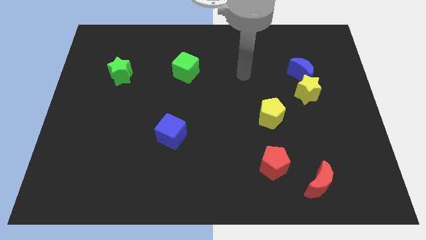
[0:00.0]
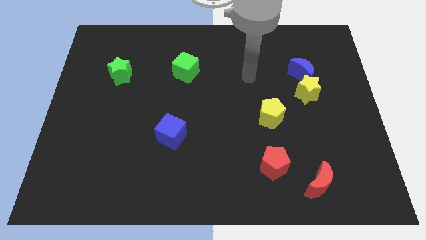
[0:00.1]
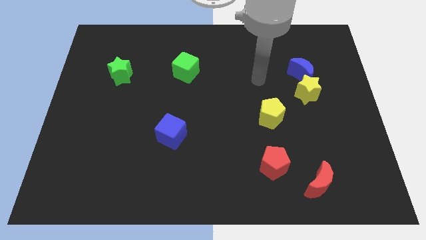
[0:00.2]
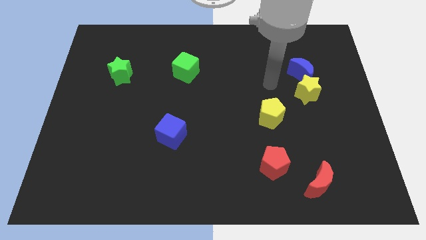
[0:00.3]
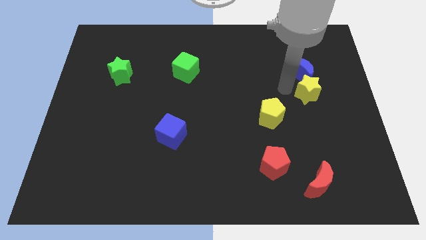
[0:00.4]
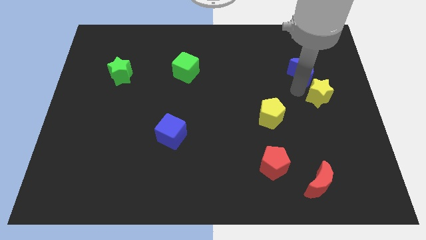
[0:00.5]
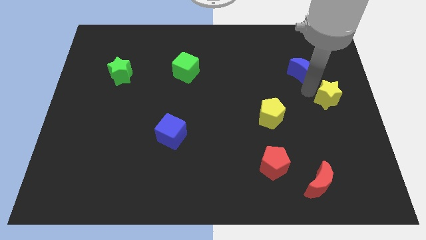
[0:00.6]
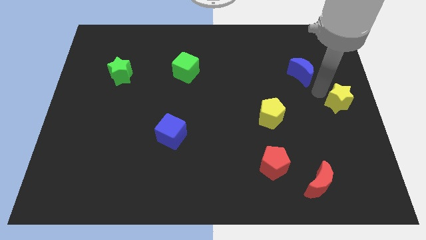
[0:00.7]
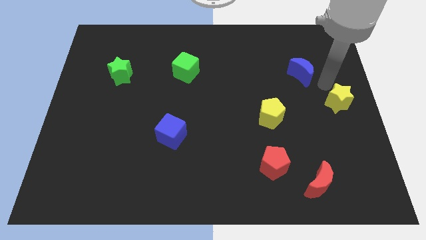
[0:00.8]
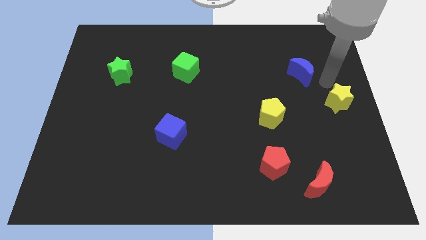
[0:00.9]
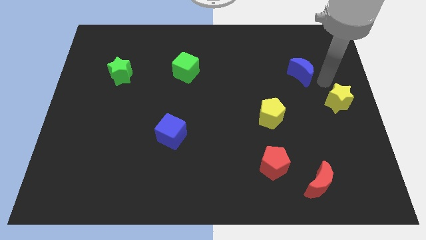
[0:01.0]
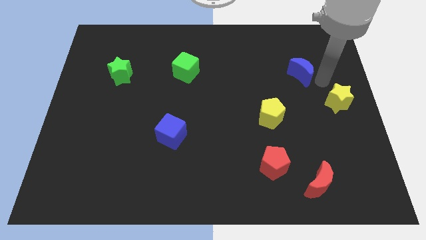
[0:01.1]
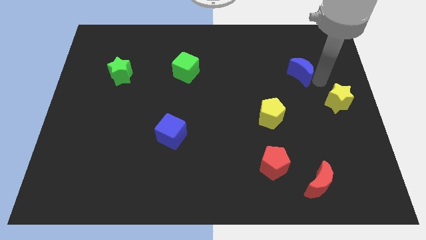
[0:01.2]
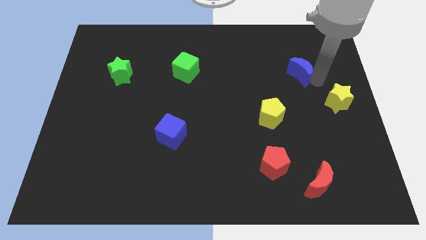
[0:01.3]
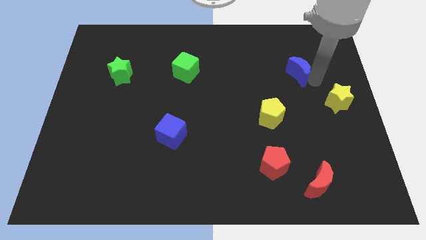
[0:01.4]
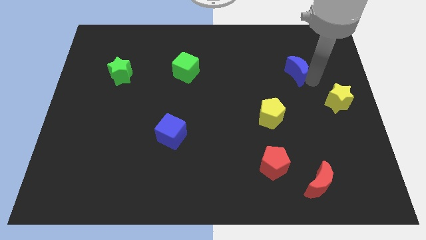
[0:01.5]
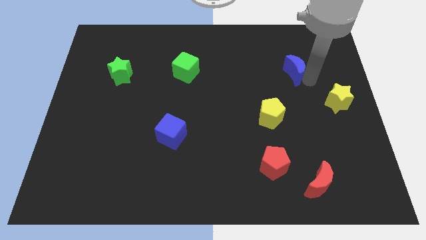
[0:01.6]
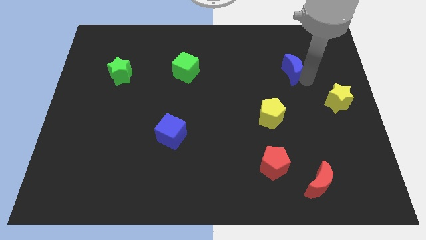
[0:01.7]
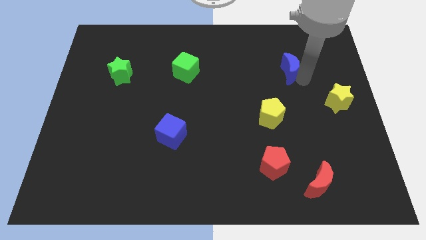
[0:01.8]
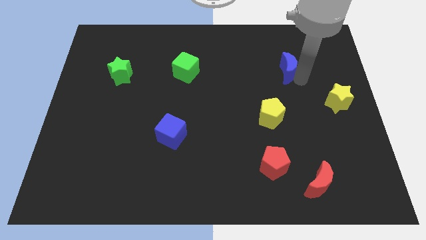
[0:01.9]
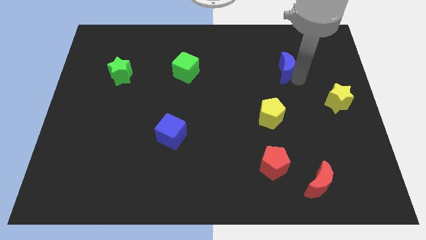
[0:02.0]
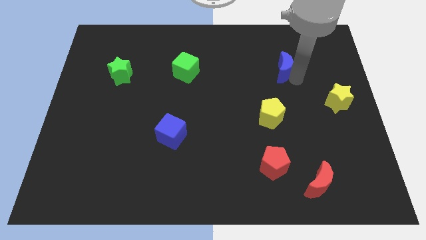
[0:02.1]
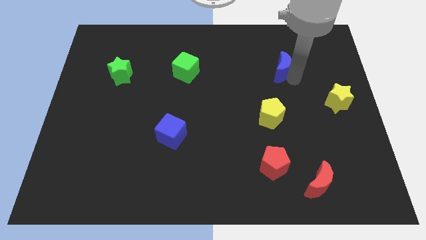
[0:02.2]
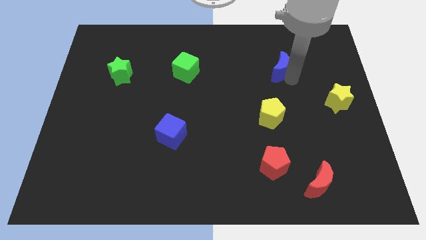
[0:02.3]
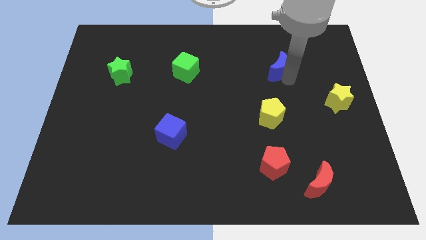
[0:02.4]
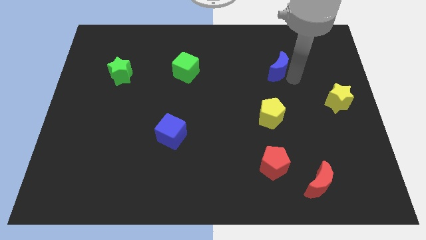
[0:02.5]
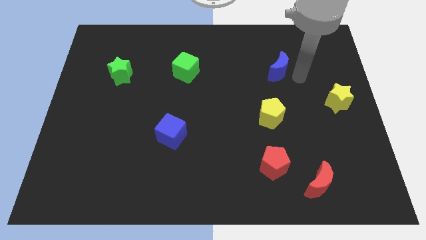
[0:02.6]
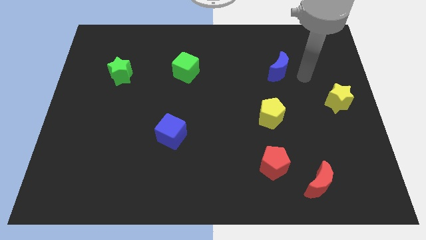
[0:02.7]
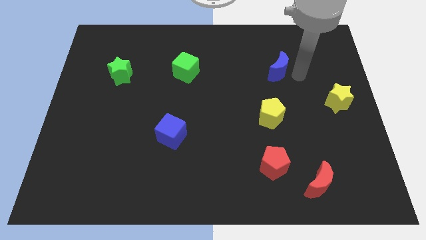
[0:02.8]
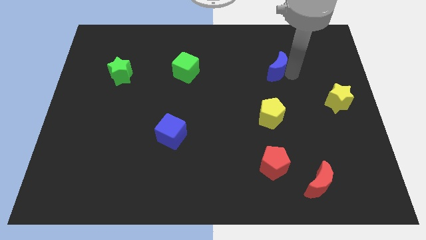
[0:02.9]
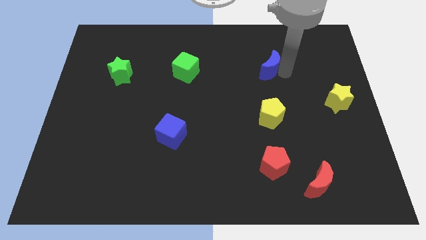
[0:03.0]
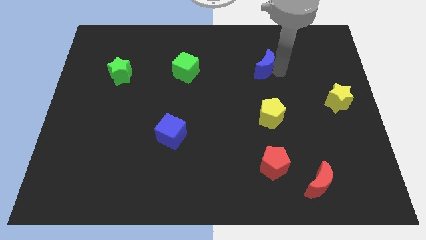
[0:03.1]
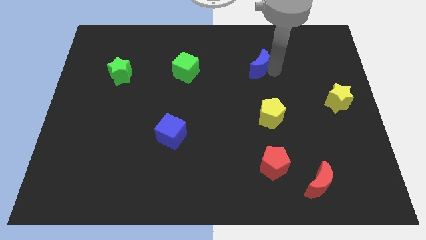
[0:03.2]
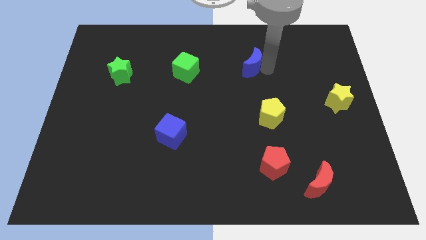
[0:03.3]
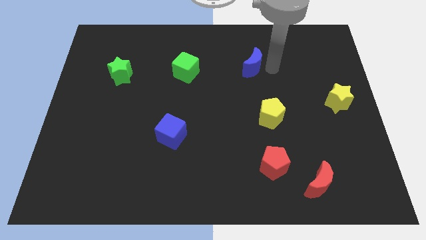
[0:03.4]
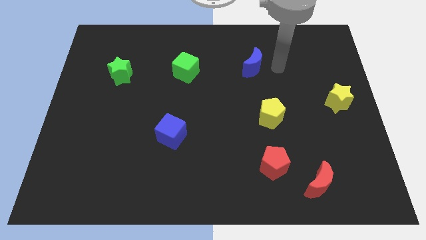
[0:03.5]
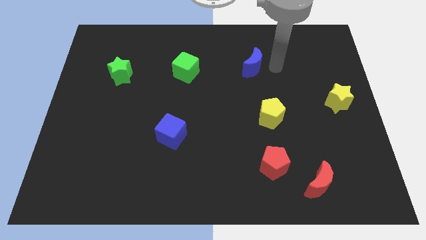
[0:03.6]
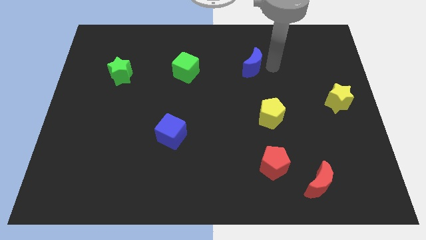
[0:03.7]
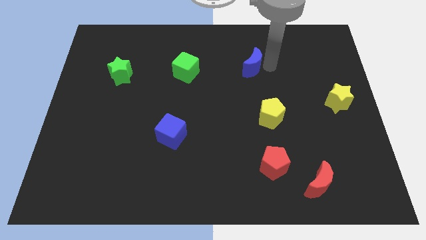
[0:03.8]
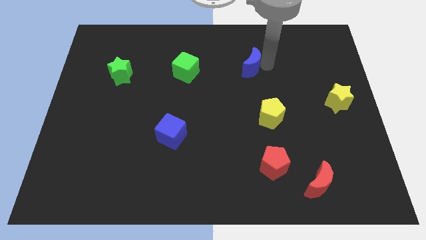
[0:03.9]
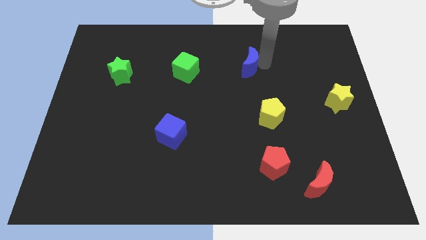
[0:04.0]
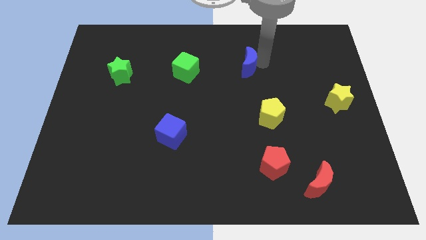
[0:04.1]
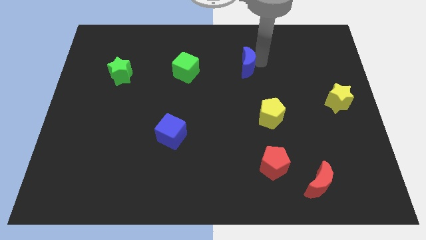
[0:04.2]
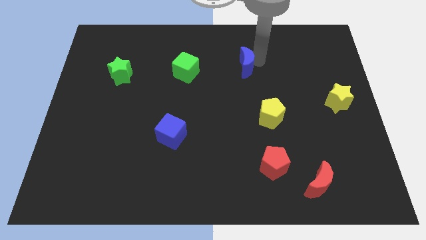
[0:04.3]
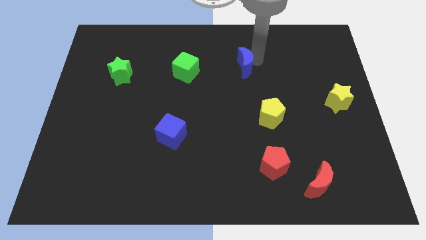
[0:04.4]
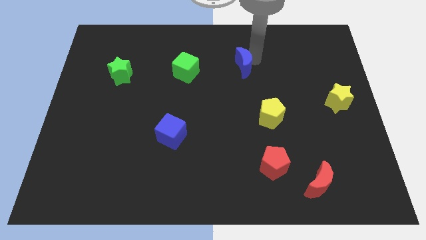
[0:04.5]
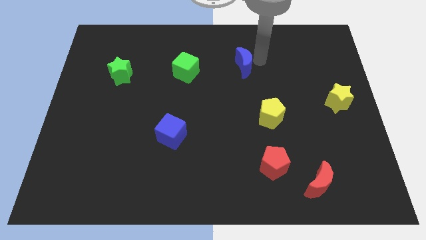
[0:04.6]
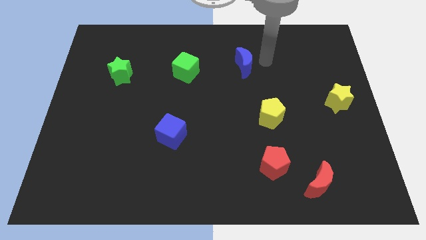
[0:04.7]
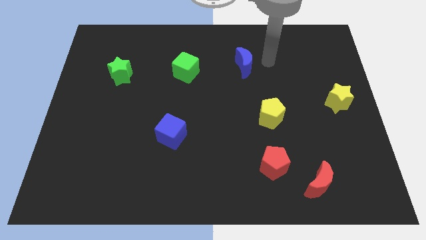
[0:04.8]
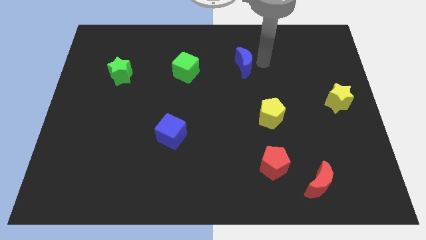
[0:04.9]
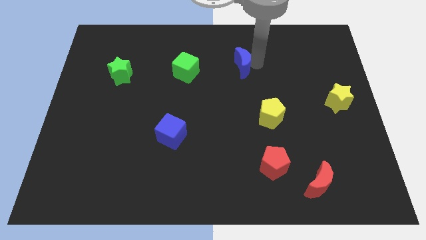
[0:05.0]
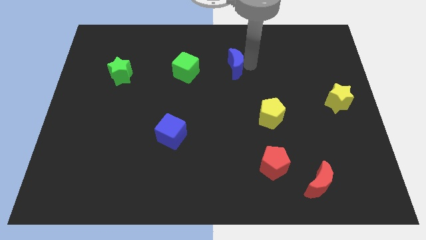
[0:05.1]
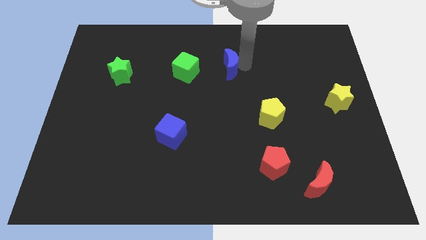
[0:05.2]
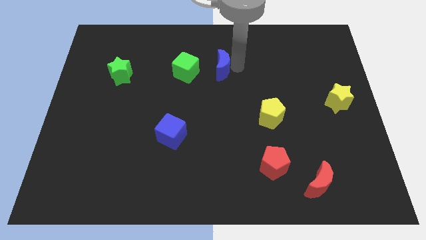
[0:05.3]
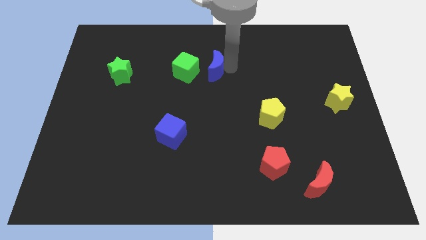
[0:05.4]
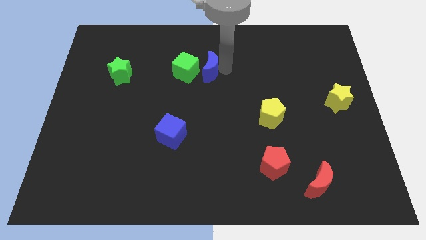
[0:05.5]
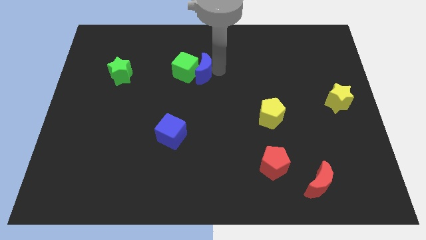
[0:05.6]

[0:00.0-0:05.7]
push the blue moon close to the green cube

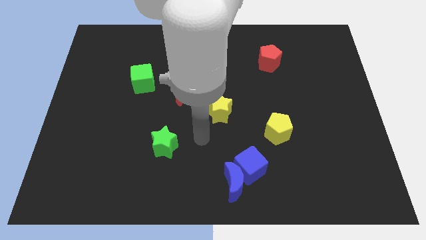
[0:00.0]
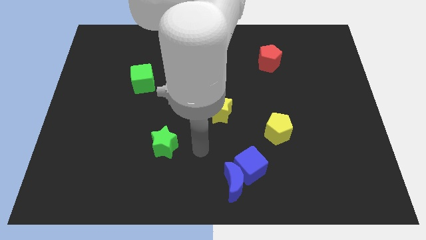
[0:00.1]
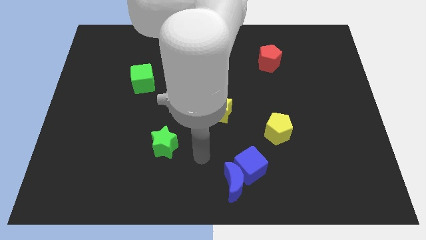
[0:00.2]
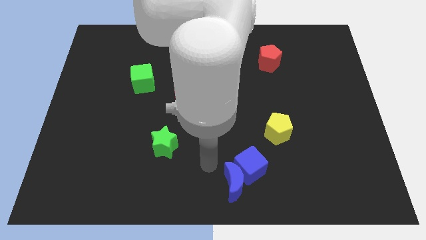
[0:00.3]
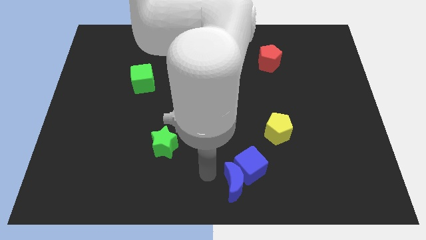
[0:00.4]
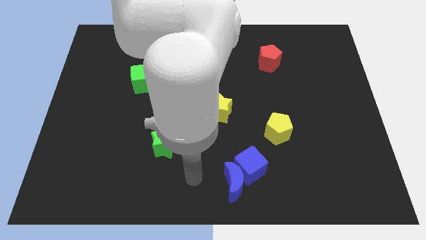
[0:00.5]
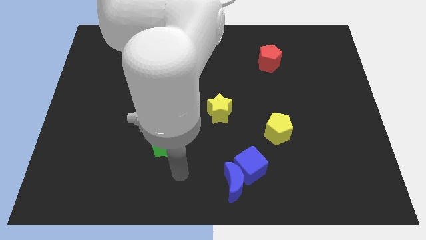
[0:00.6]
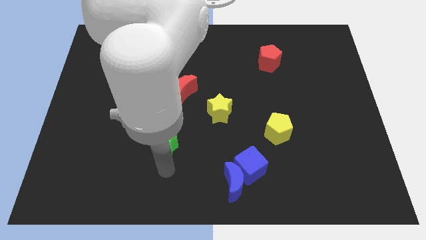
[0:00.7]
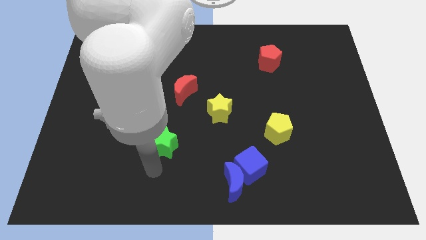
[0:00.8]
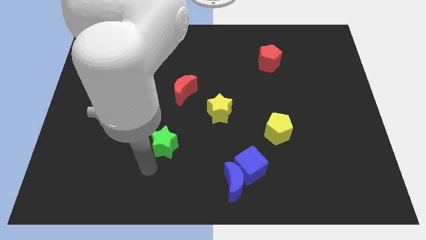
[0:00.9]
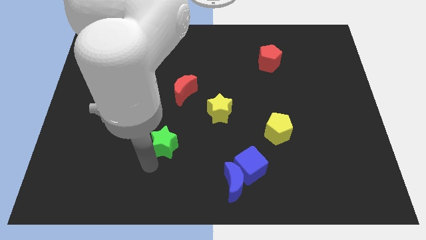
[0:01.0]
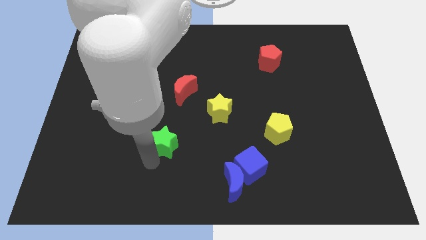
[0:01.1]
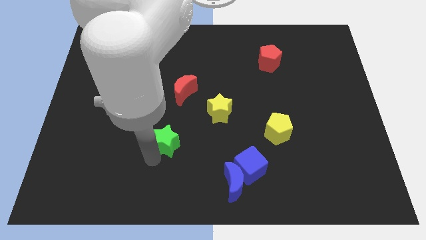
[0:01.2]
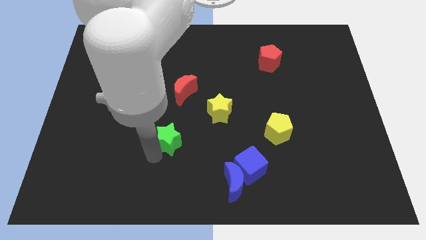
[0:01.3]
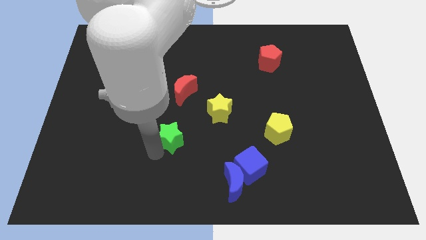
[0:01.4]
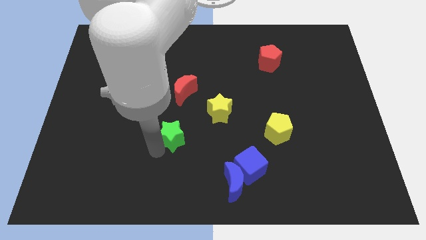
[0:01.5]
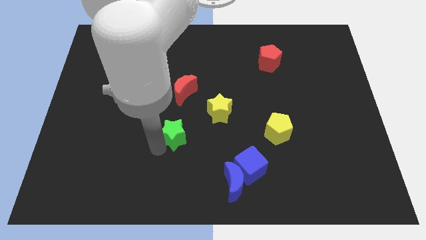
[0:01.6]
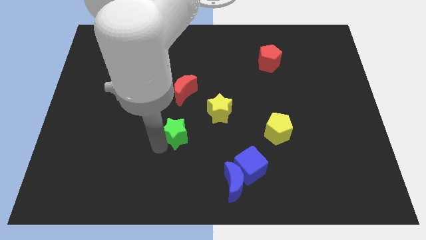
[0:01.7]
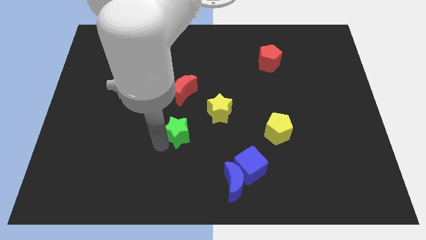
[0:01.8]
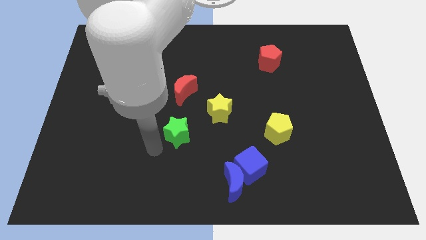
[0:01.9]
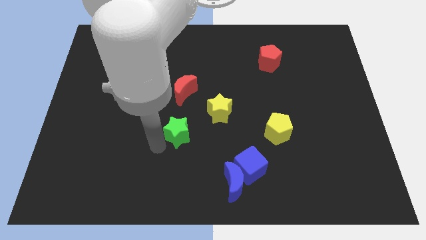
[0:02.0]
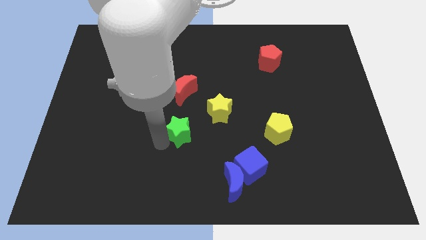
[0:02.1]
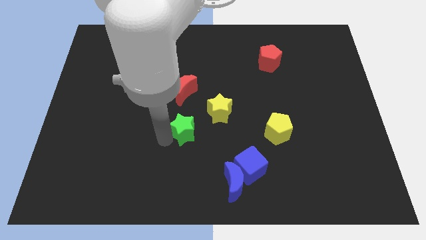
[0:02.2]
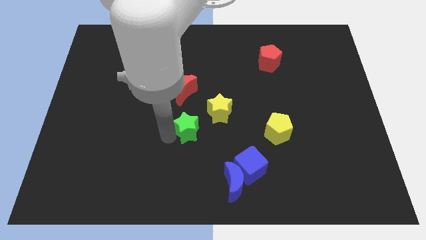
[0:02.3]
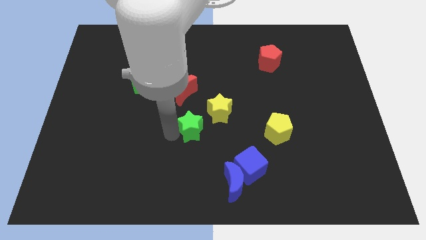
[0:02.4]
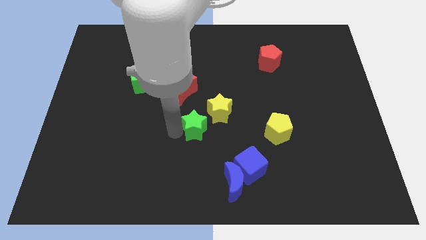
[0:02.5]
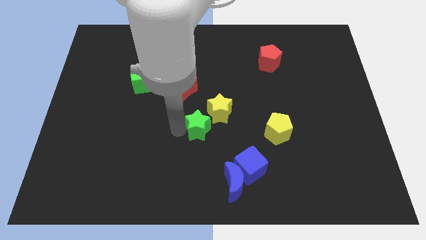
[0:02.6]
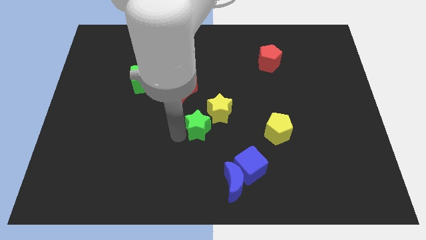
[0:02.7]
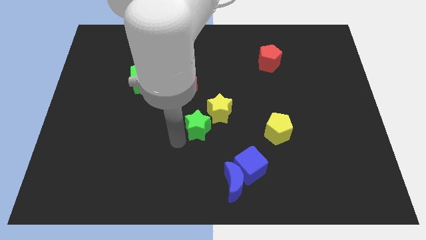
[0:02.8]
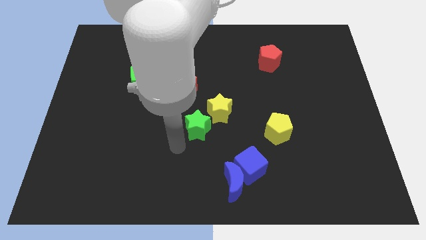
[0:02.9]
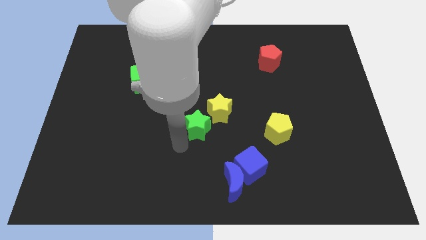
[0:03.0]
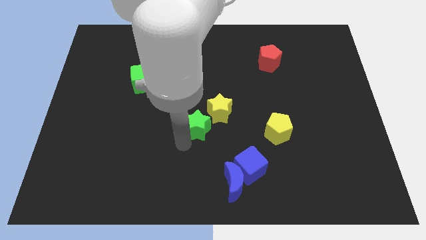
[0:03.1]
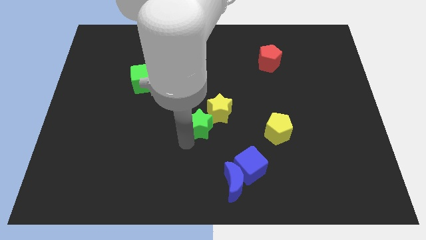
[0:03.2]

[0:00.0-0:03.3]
push the green star next to the yellow star
